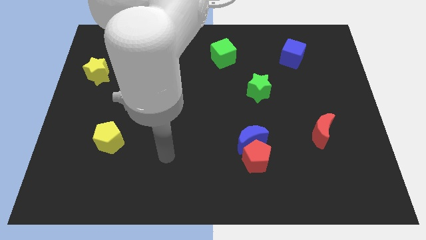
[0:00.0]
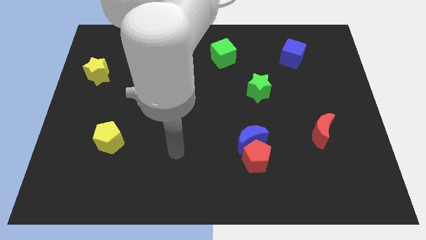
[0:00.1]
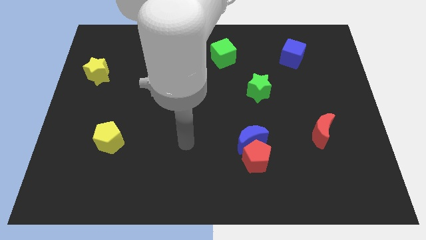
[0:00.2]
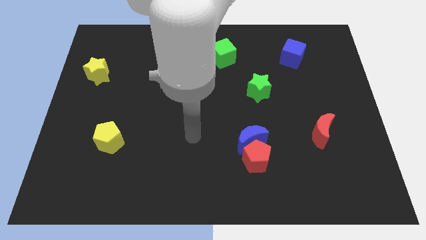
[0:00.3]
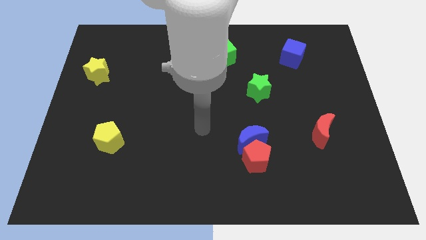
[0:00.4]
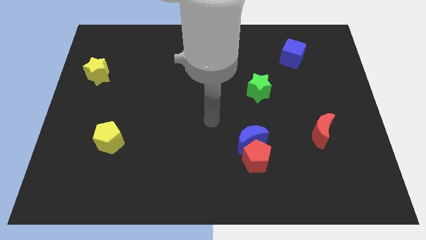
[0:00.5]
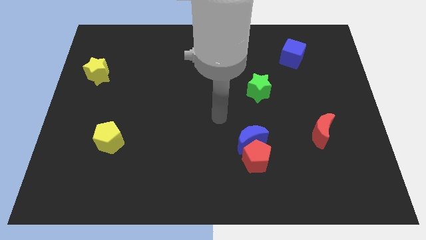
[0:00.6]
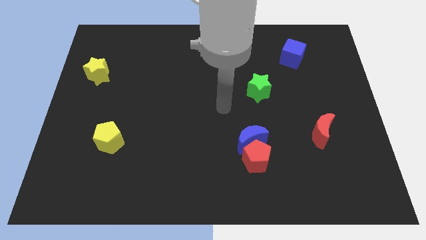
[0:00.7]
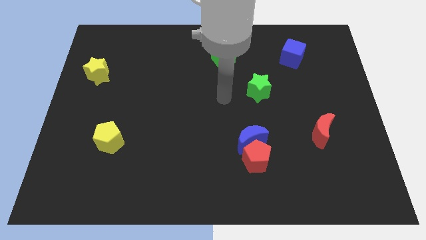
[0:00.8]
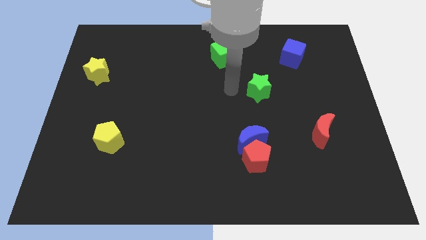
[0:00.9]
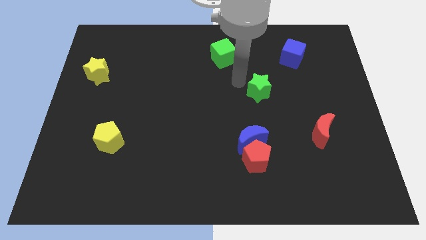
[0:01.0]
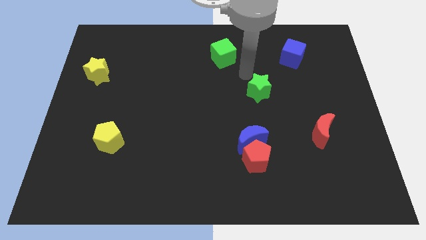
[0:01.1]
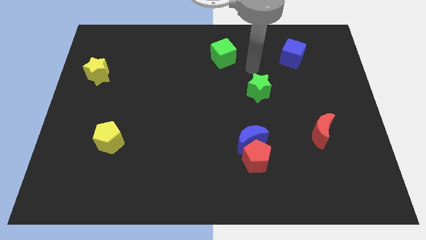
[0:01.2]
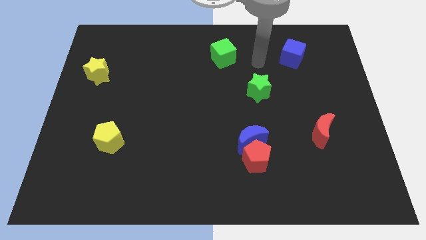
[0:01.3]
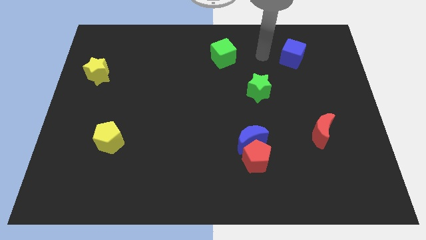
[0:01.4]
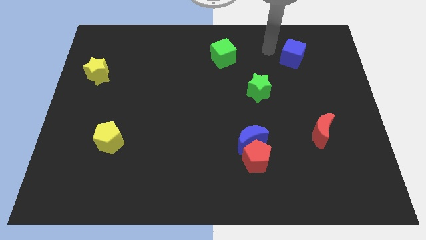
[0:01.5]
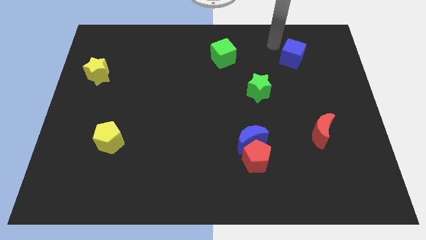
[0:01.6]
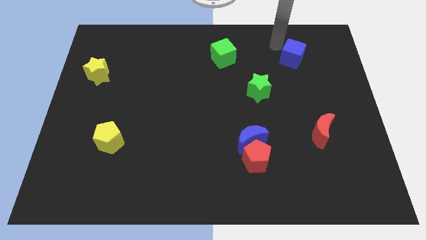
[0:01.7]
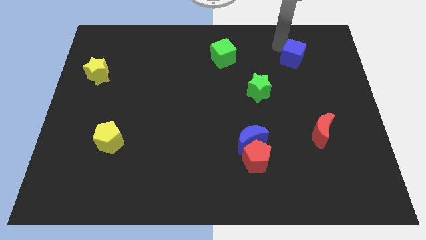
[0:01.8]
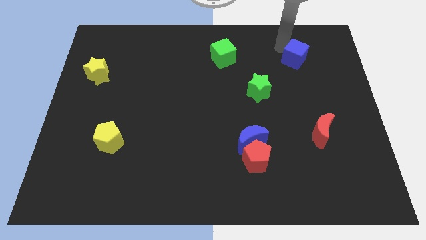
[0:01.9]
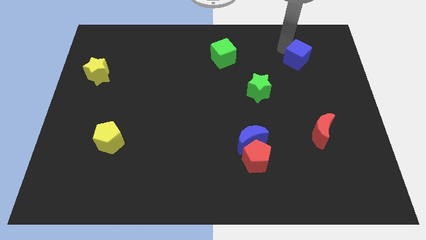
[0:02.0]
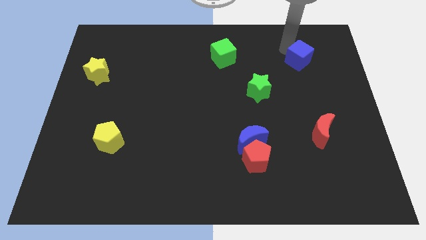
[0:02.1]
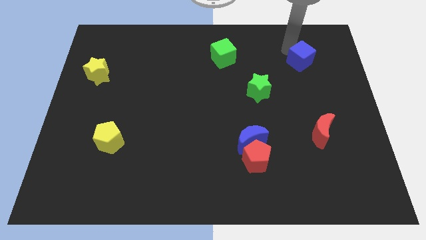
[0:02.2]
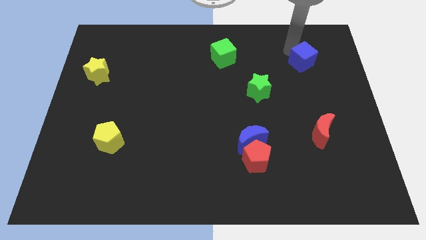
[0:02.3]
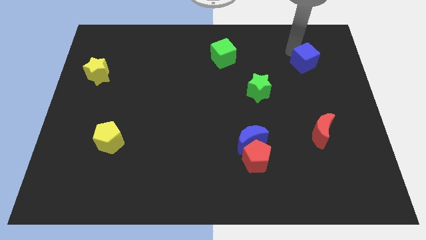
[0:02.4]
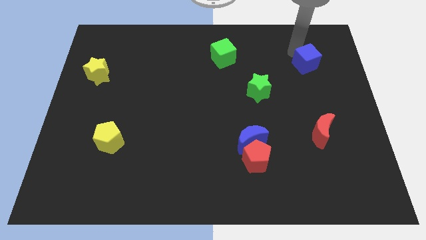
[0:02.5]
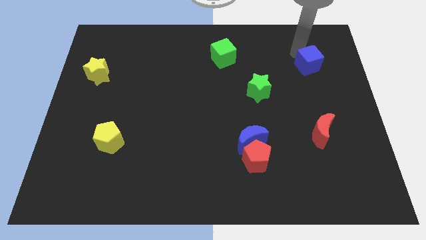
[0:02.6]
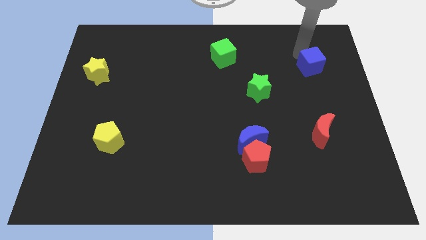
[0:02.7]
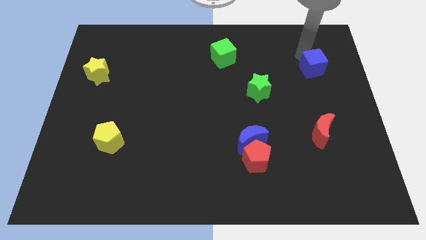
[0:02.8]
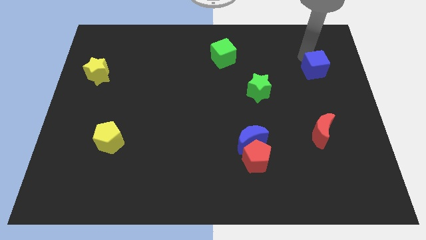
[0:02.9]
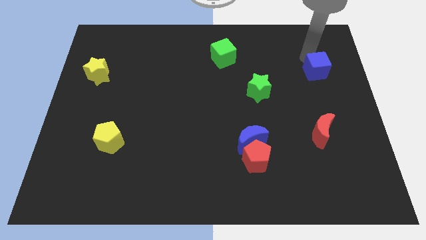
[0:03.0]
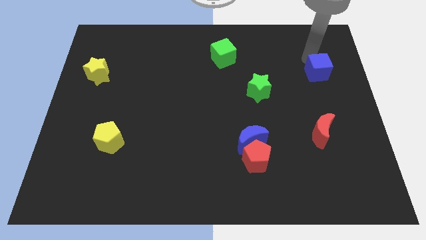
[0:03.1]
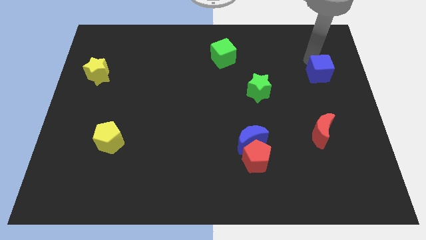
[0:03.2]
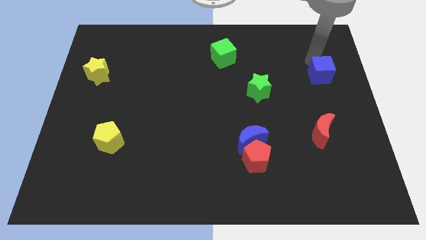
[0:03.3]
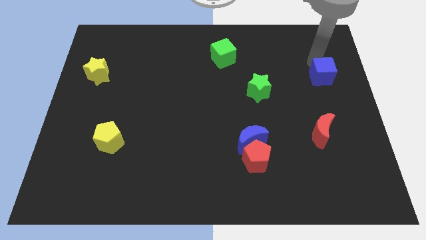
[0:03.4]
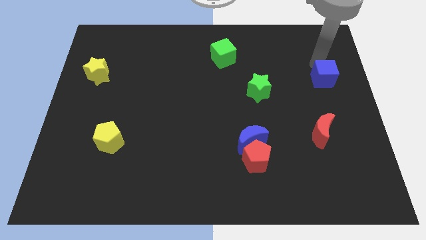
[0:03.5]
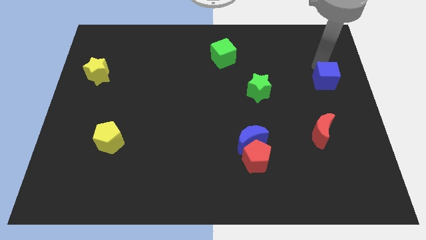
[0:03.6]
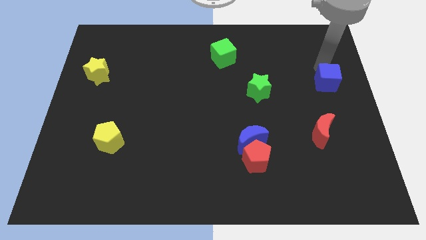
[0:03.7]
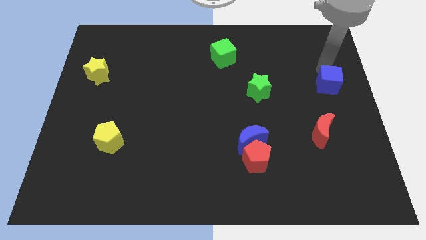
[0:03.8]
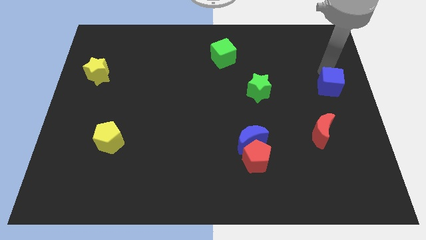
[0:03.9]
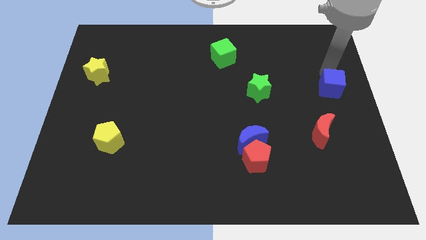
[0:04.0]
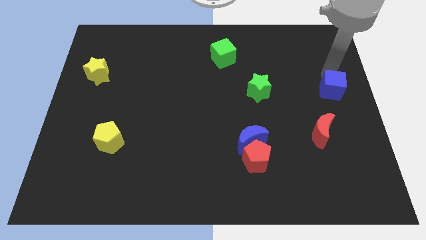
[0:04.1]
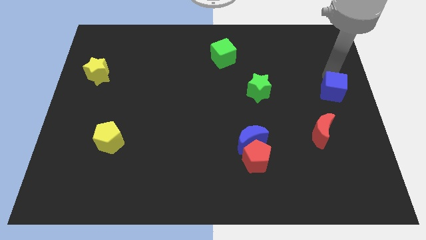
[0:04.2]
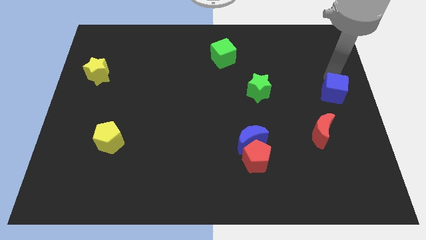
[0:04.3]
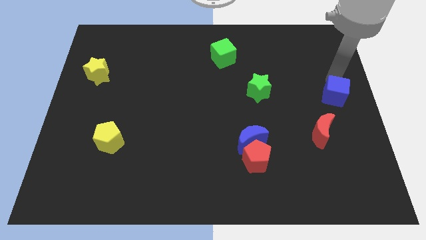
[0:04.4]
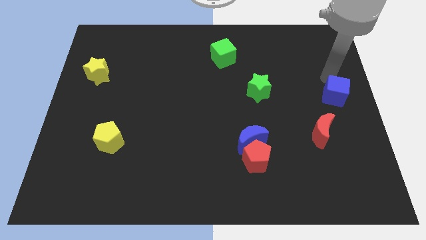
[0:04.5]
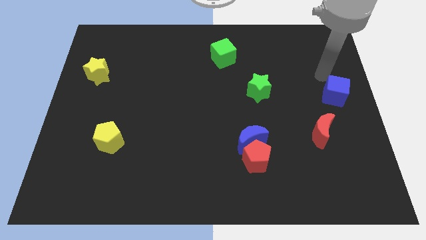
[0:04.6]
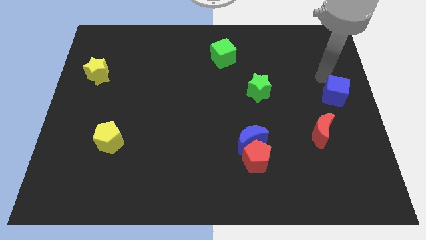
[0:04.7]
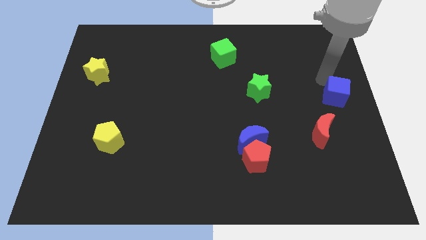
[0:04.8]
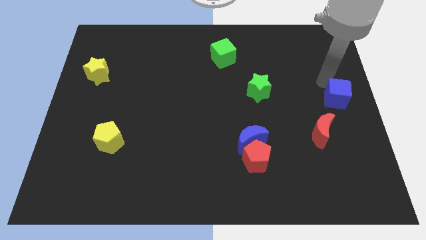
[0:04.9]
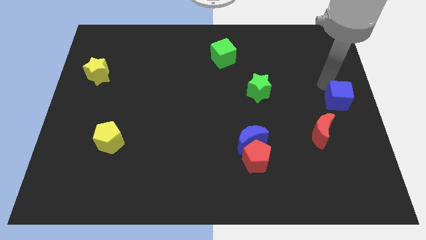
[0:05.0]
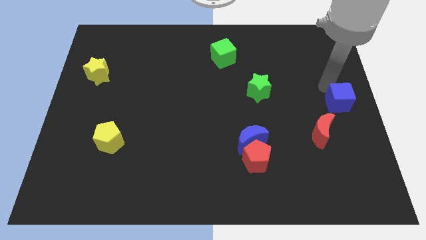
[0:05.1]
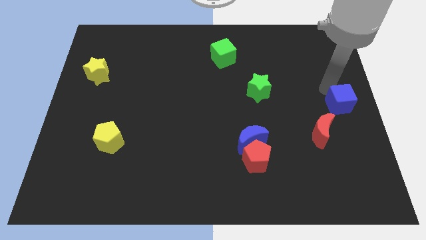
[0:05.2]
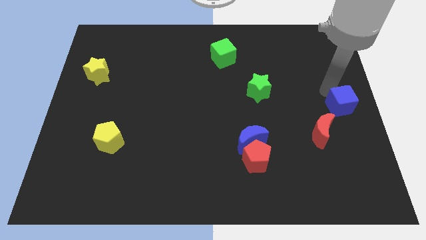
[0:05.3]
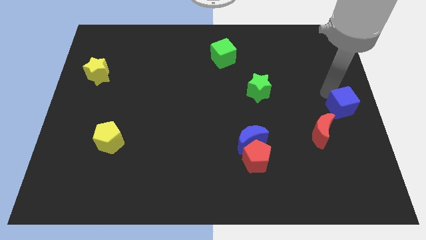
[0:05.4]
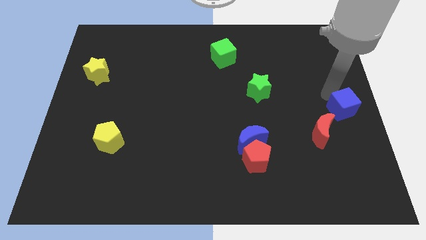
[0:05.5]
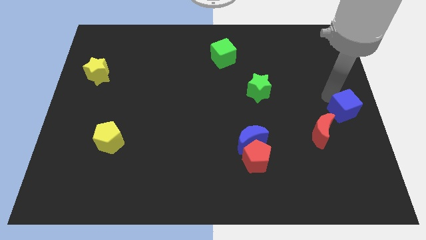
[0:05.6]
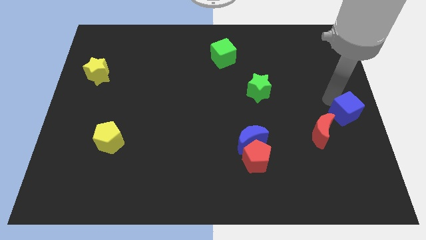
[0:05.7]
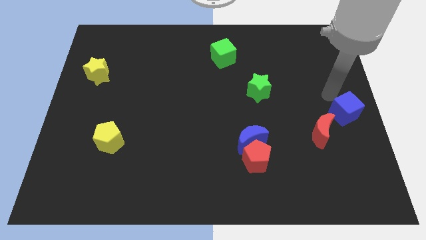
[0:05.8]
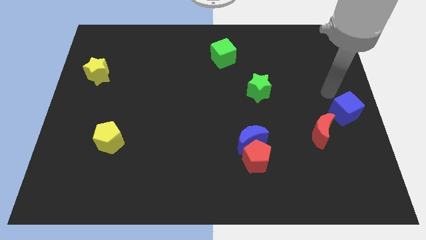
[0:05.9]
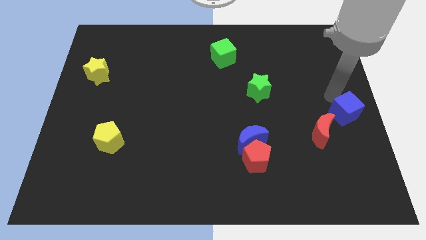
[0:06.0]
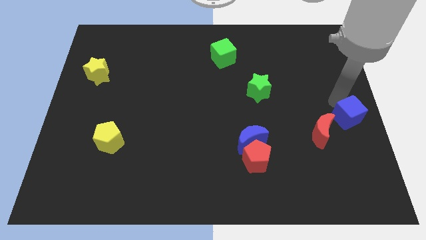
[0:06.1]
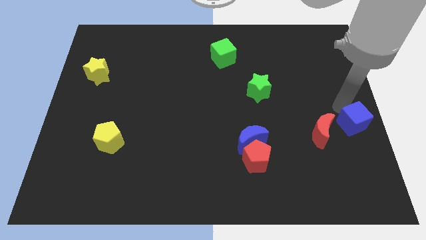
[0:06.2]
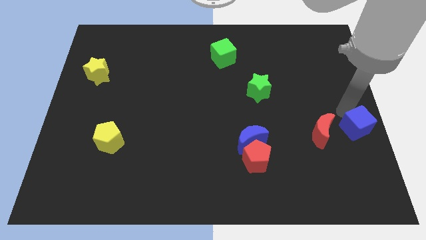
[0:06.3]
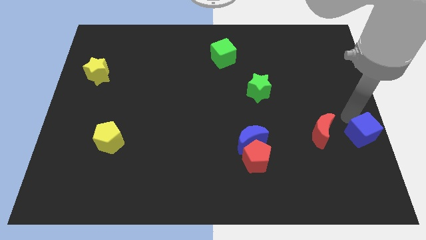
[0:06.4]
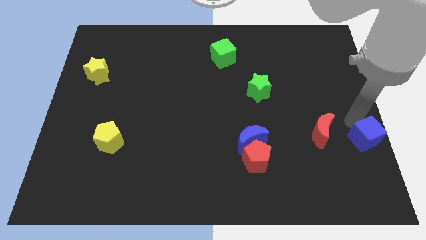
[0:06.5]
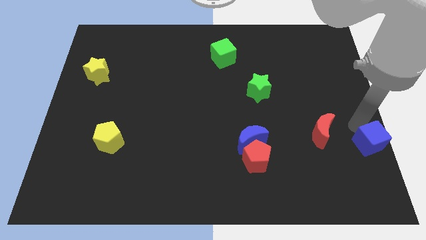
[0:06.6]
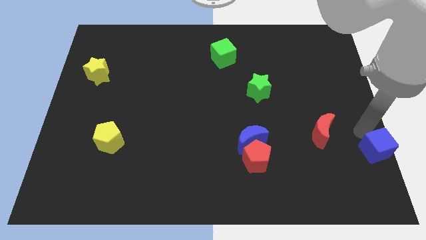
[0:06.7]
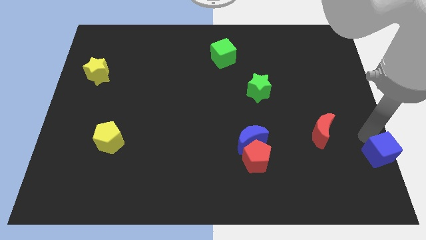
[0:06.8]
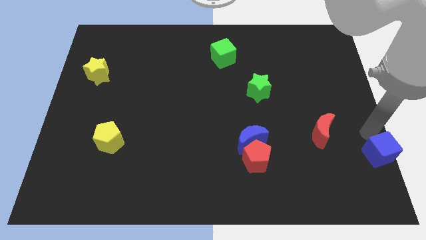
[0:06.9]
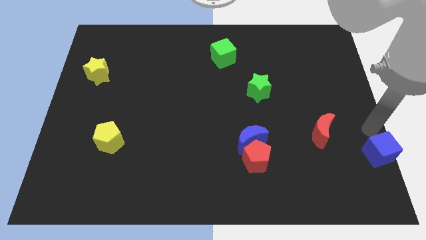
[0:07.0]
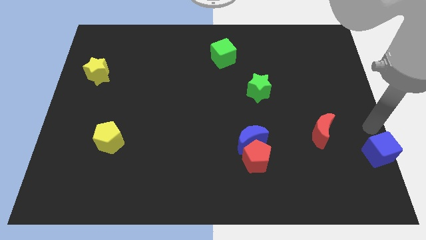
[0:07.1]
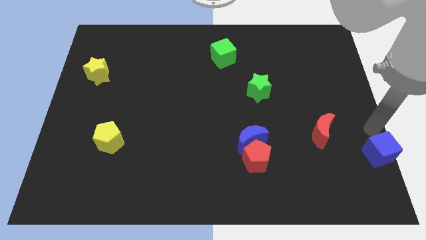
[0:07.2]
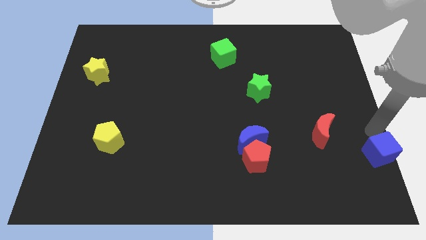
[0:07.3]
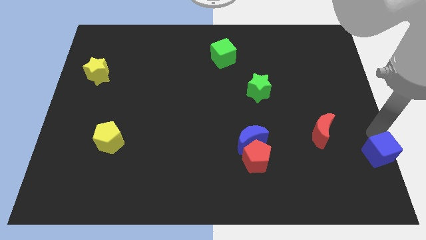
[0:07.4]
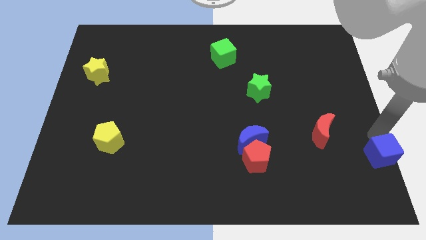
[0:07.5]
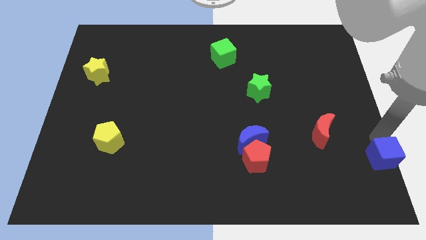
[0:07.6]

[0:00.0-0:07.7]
move the blue cube to the bottom right corner

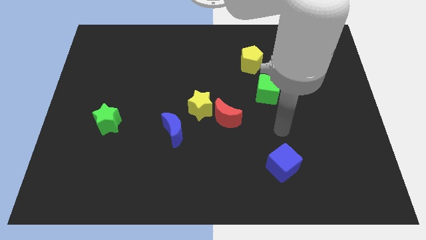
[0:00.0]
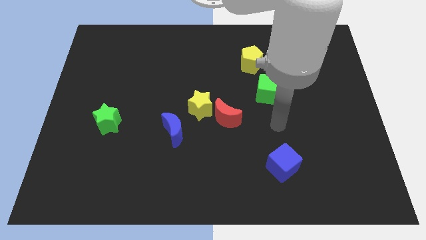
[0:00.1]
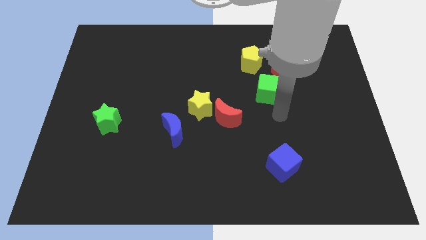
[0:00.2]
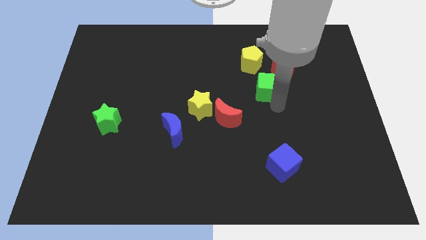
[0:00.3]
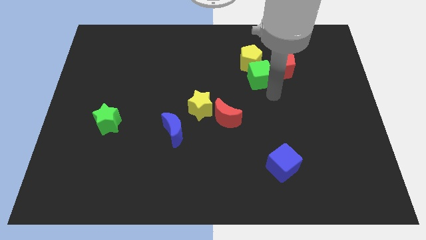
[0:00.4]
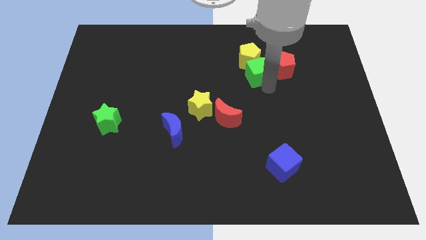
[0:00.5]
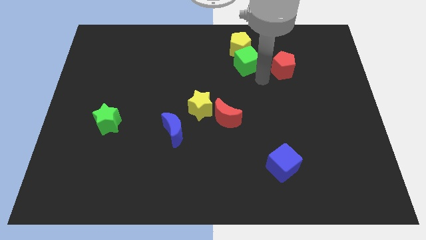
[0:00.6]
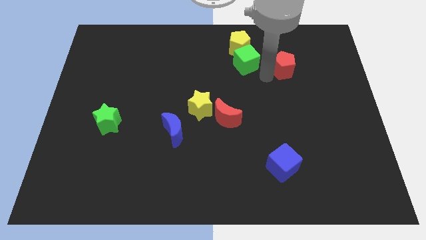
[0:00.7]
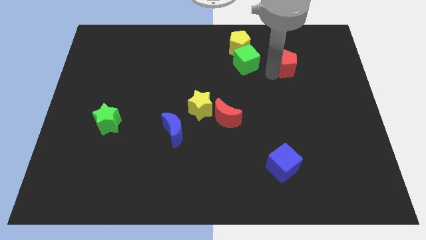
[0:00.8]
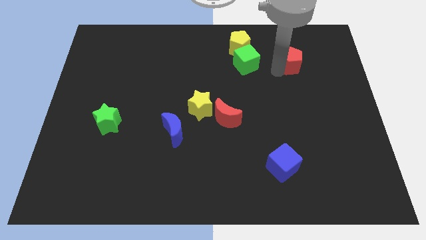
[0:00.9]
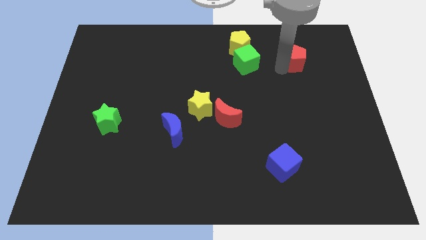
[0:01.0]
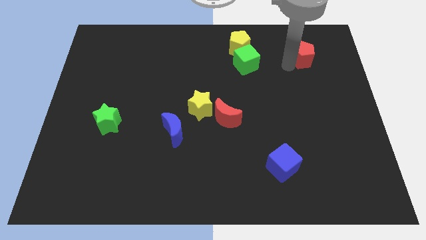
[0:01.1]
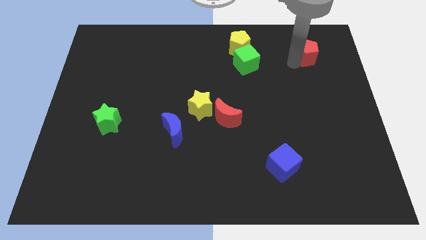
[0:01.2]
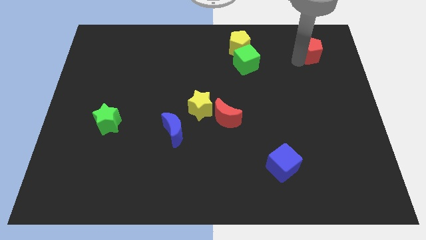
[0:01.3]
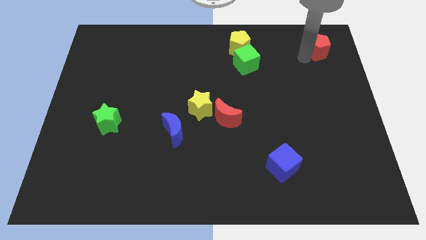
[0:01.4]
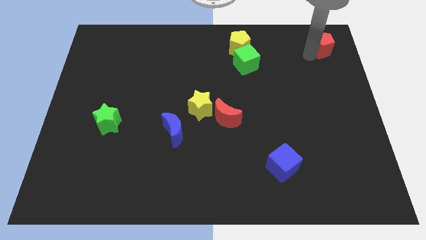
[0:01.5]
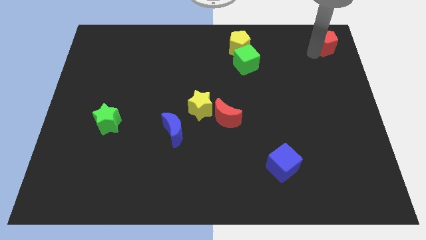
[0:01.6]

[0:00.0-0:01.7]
put the red pentagon to the upper right corner
